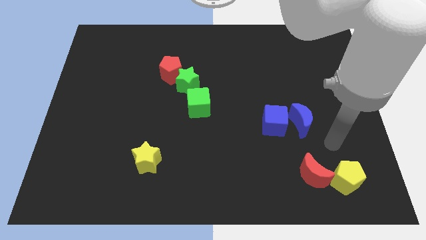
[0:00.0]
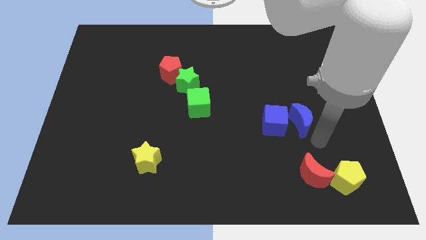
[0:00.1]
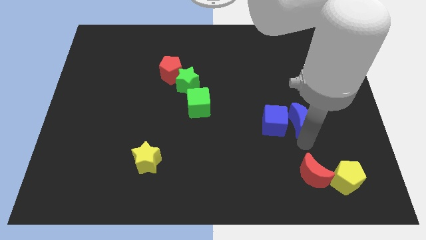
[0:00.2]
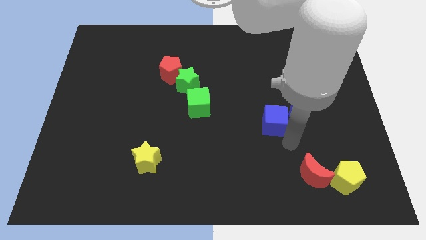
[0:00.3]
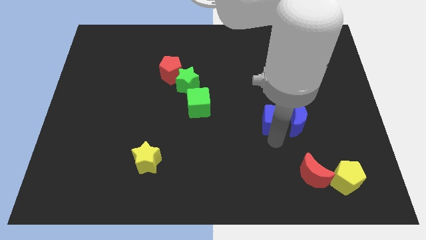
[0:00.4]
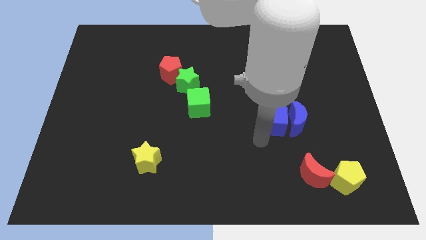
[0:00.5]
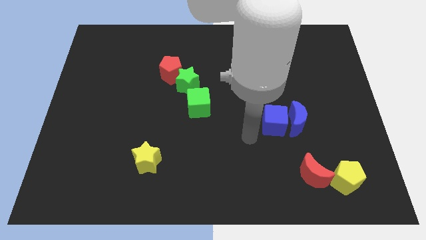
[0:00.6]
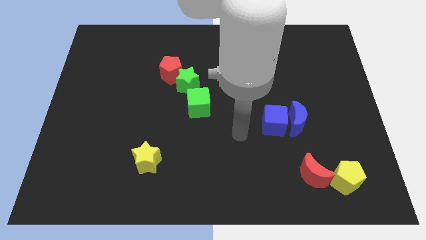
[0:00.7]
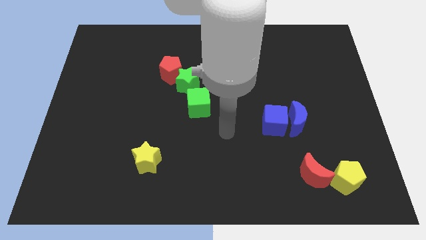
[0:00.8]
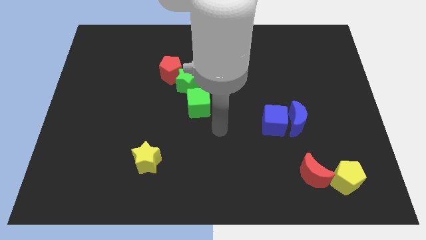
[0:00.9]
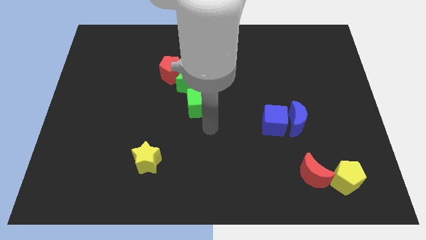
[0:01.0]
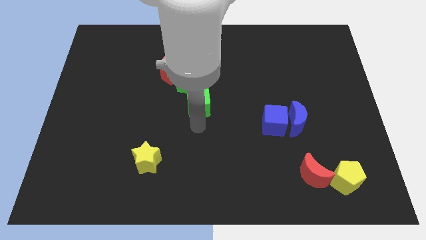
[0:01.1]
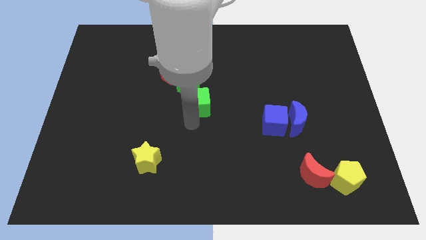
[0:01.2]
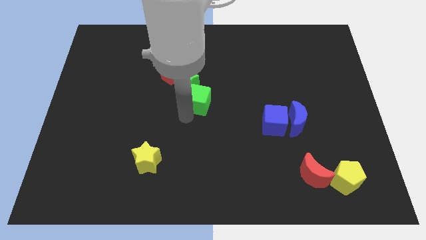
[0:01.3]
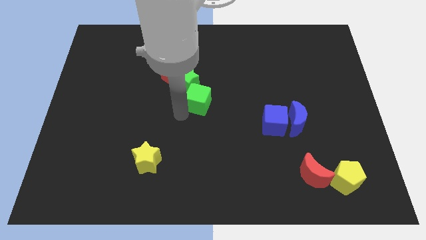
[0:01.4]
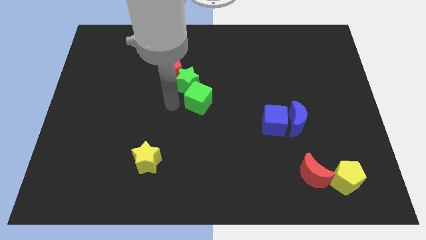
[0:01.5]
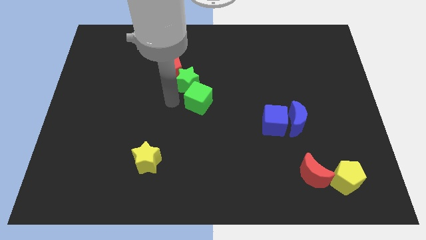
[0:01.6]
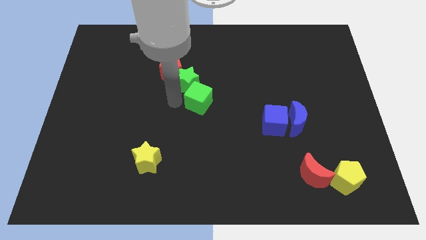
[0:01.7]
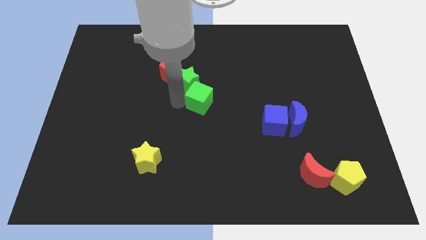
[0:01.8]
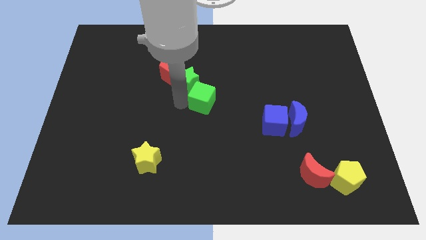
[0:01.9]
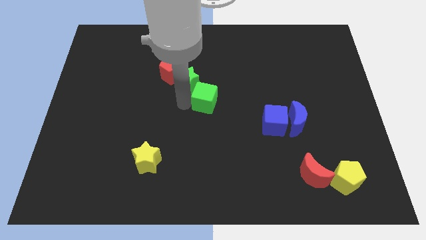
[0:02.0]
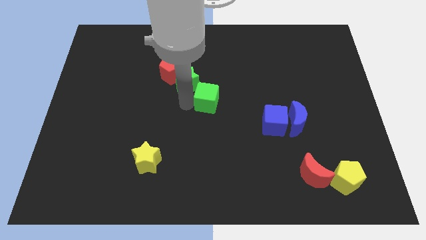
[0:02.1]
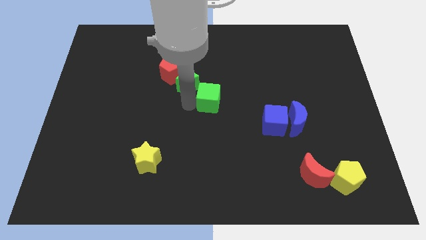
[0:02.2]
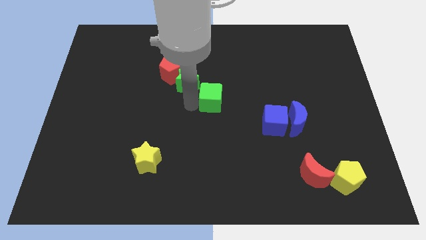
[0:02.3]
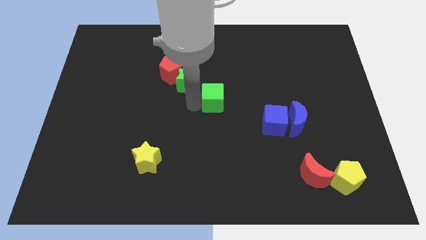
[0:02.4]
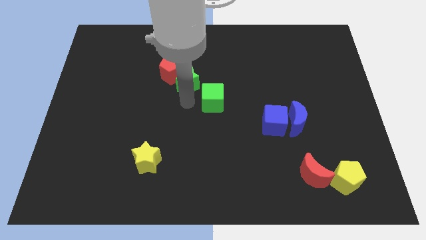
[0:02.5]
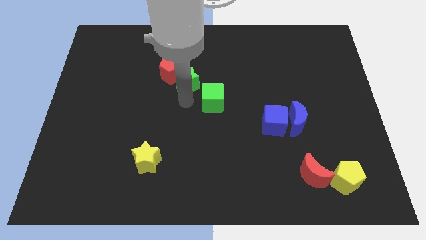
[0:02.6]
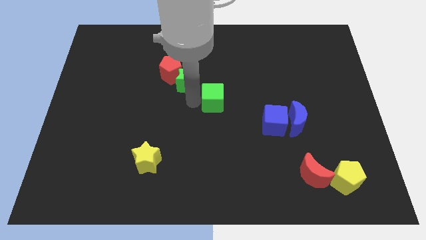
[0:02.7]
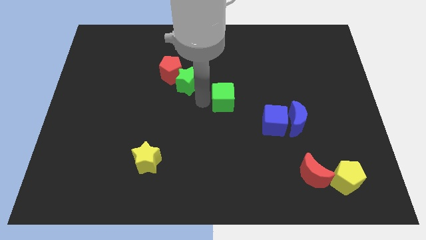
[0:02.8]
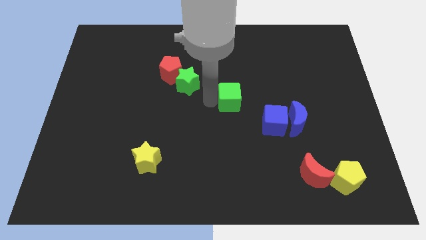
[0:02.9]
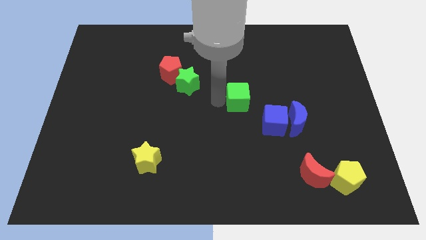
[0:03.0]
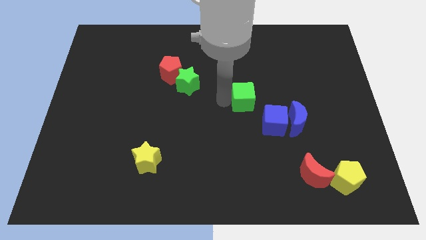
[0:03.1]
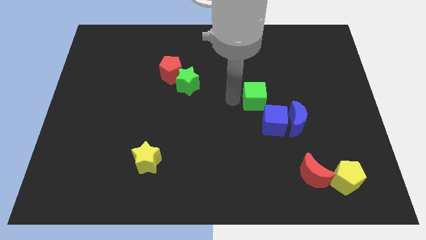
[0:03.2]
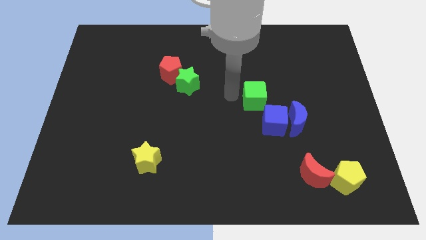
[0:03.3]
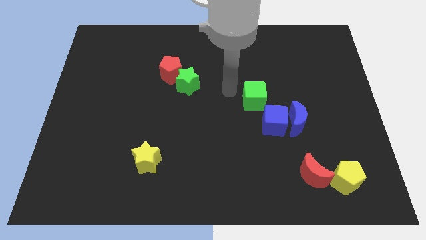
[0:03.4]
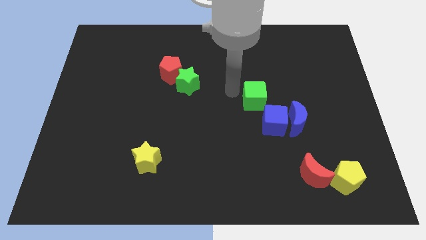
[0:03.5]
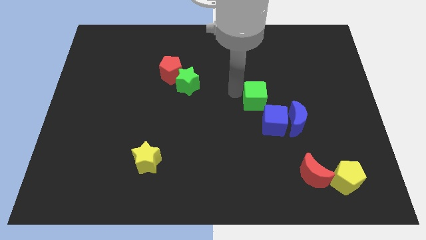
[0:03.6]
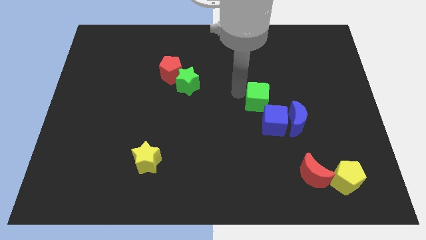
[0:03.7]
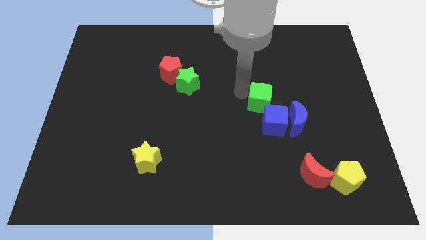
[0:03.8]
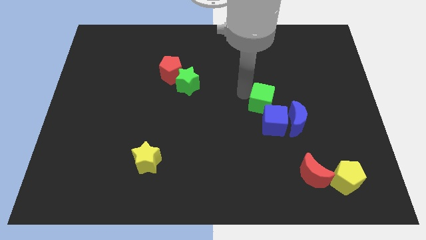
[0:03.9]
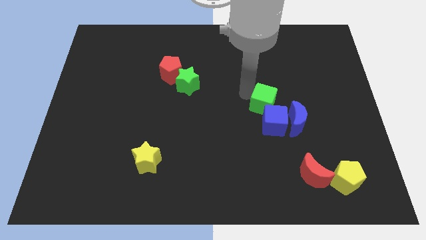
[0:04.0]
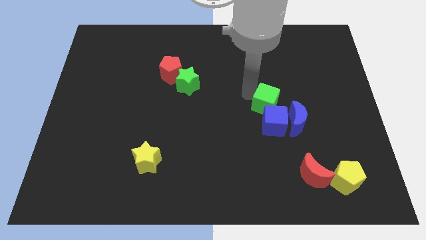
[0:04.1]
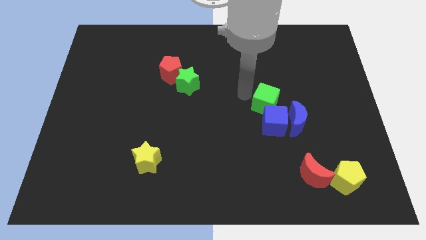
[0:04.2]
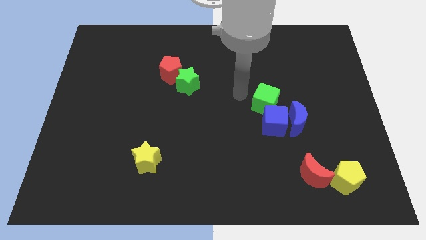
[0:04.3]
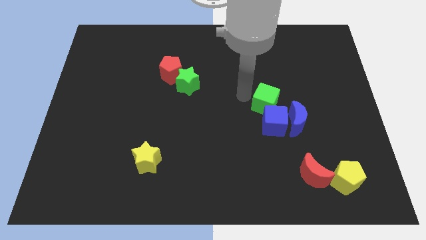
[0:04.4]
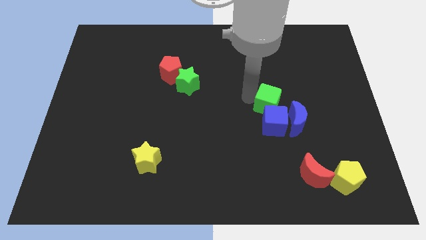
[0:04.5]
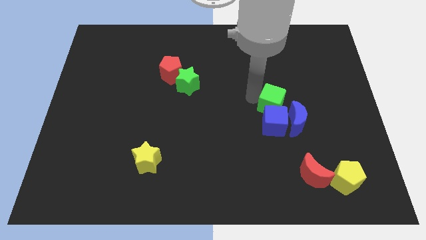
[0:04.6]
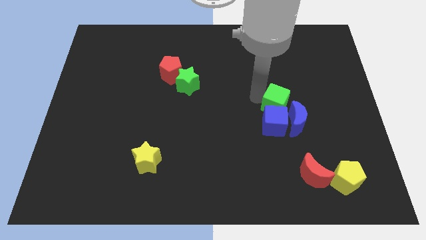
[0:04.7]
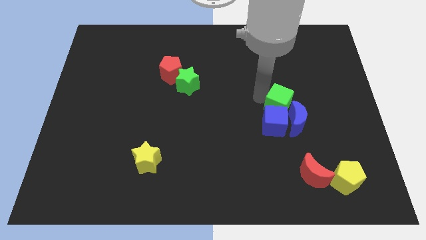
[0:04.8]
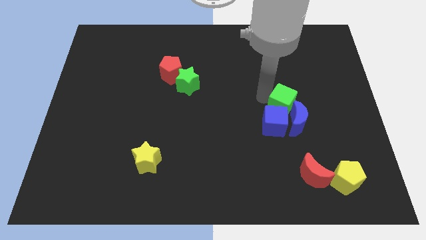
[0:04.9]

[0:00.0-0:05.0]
put the green cube next to the blue moon

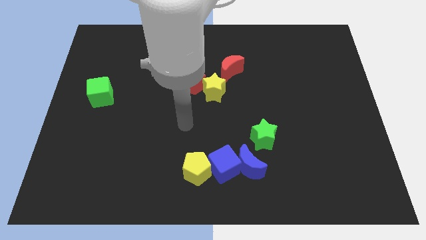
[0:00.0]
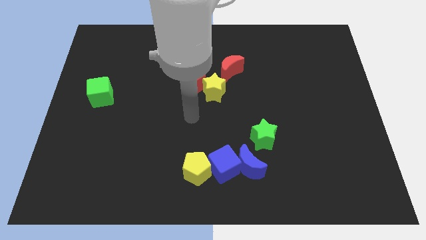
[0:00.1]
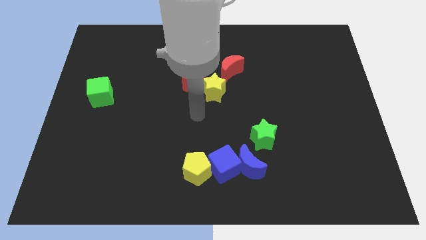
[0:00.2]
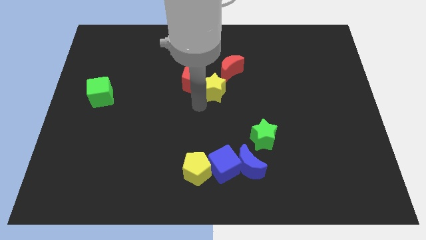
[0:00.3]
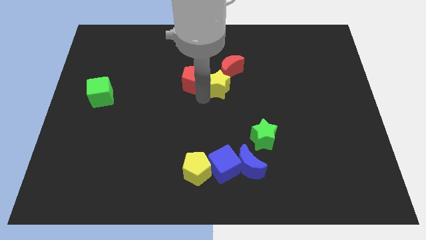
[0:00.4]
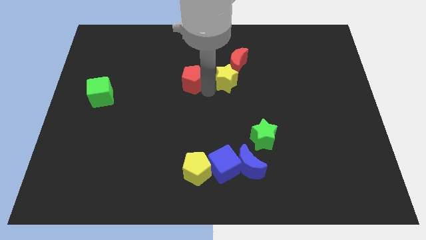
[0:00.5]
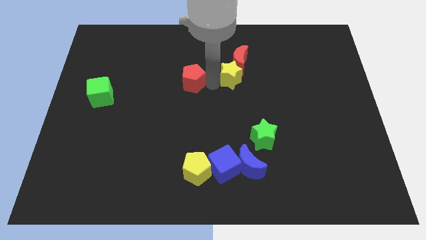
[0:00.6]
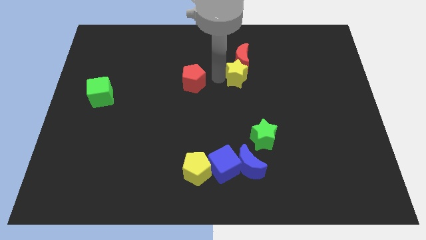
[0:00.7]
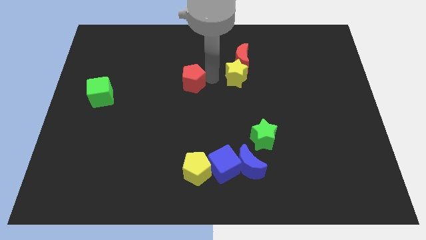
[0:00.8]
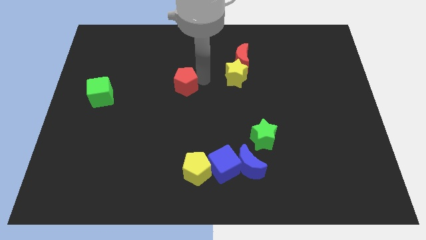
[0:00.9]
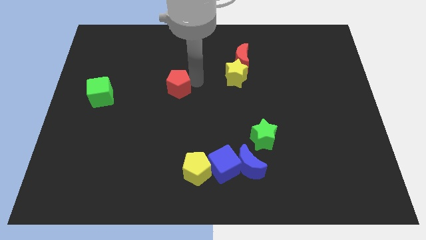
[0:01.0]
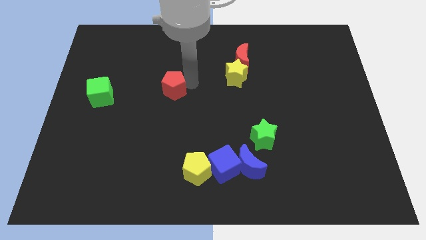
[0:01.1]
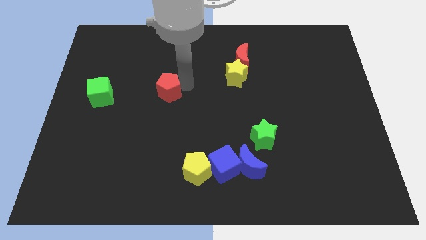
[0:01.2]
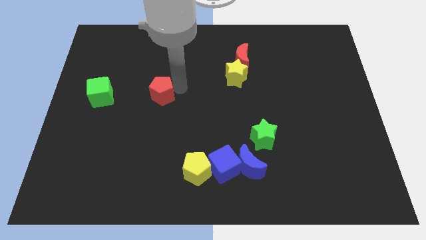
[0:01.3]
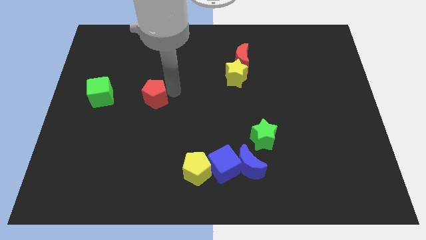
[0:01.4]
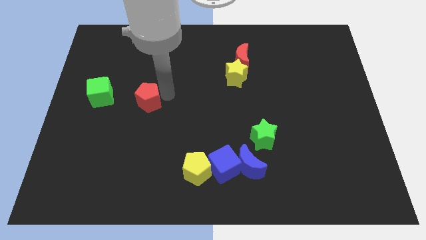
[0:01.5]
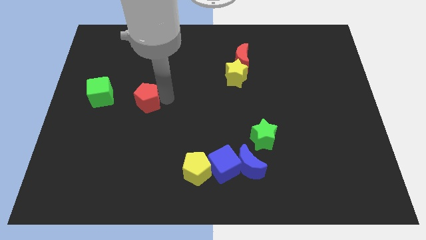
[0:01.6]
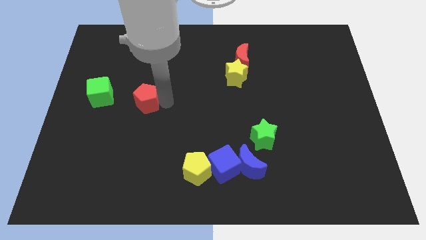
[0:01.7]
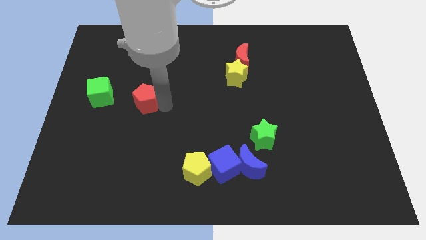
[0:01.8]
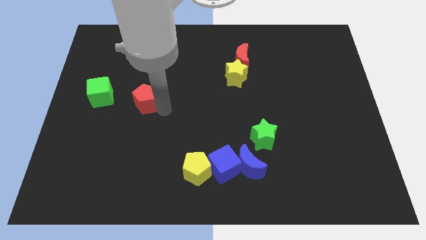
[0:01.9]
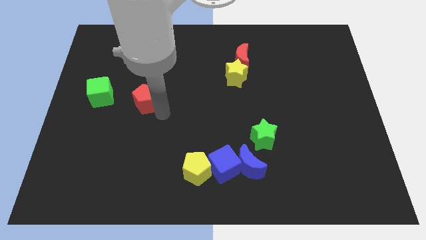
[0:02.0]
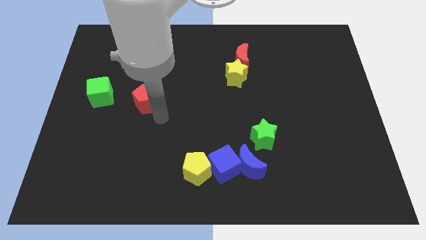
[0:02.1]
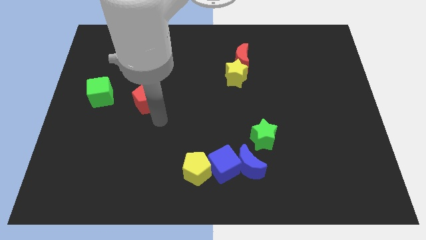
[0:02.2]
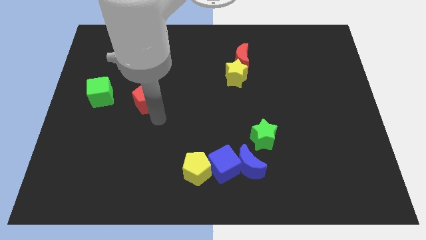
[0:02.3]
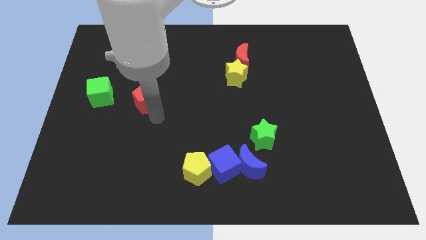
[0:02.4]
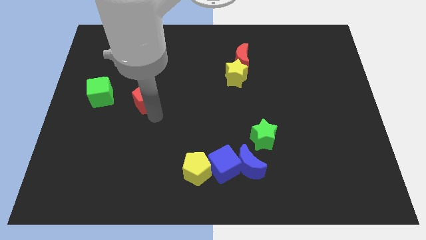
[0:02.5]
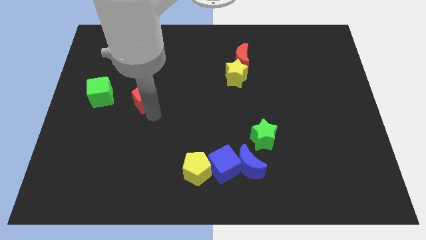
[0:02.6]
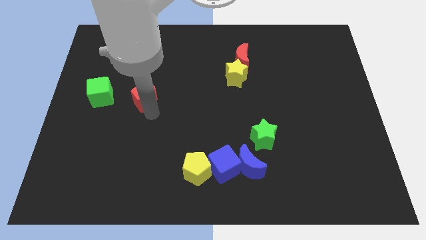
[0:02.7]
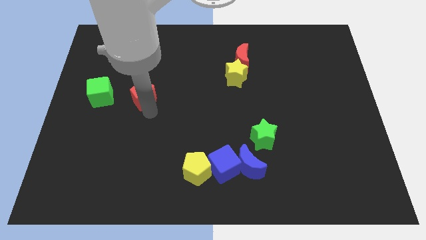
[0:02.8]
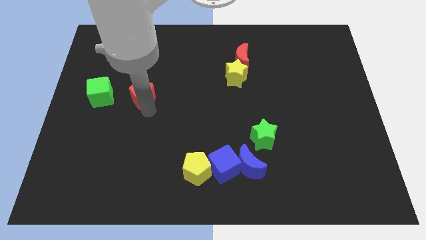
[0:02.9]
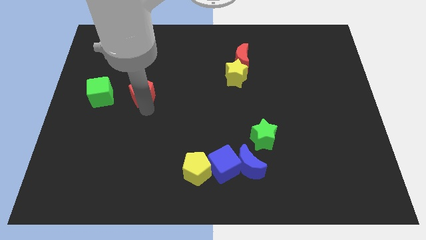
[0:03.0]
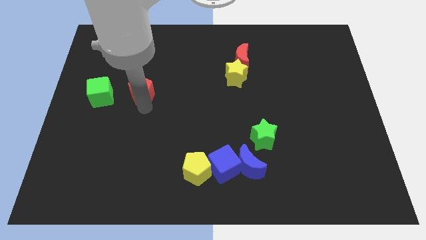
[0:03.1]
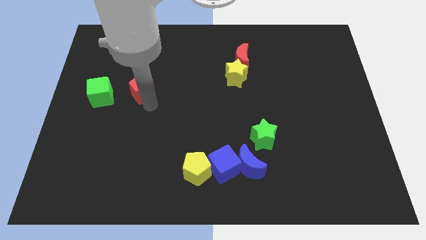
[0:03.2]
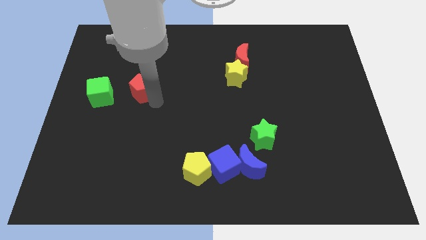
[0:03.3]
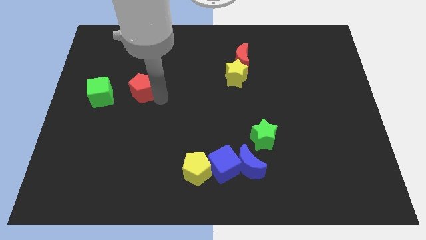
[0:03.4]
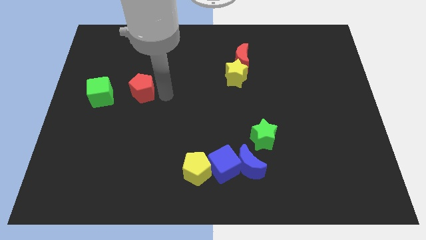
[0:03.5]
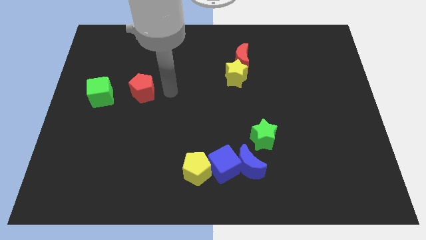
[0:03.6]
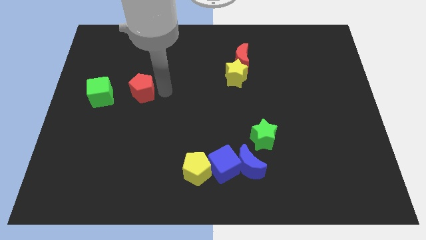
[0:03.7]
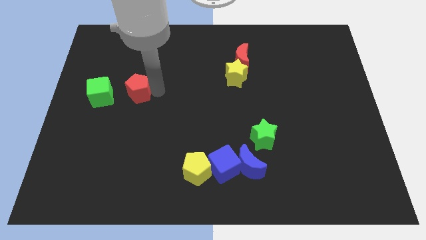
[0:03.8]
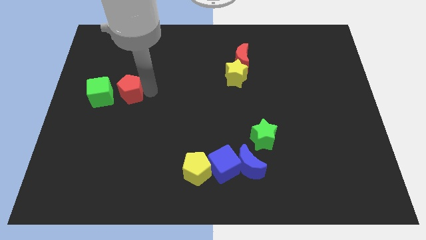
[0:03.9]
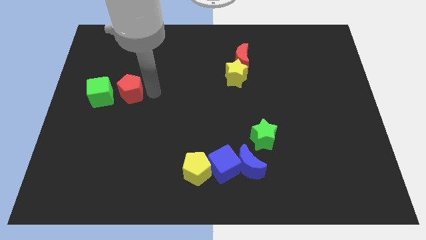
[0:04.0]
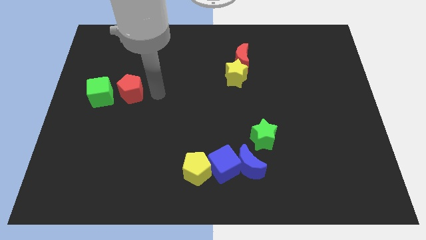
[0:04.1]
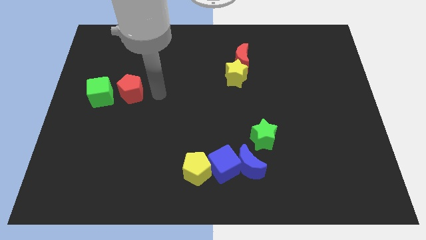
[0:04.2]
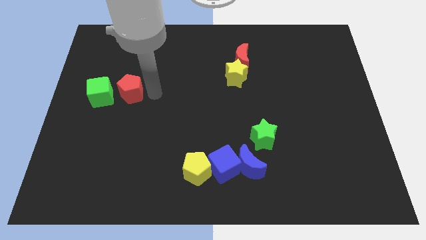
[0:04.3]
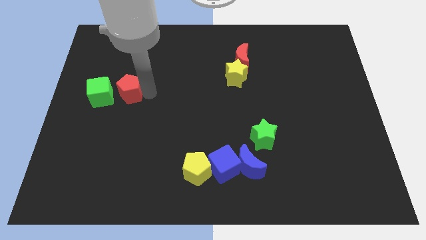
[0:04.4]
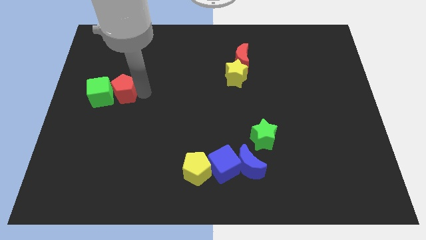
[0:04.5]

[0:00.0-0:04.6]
slide the red pentagon towards the green cube
